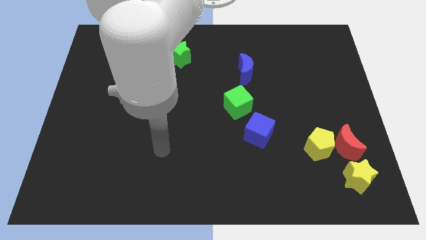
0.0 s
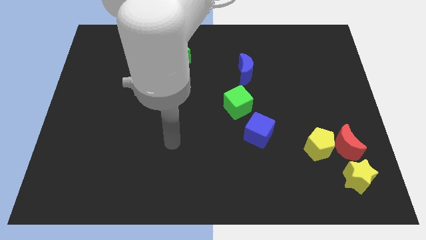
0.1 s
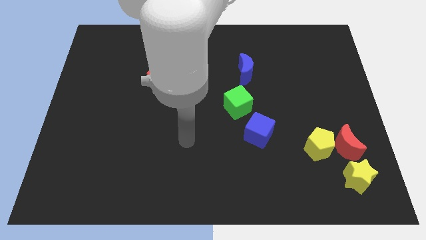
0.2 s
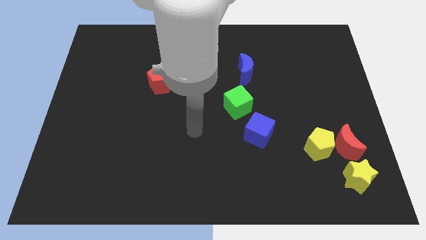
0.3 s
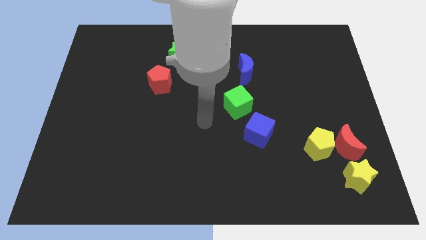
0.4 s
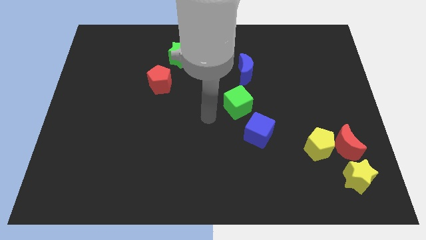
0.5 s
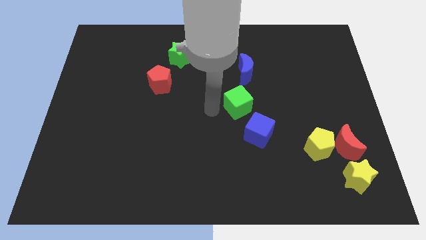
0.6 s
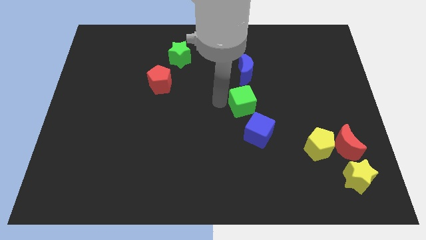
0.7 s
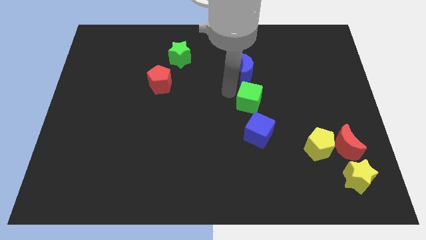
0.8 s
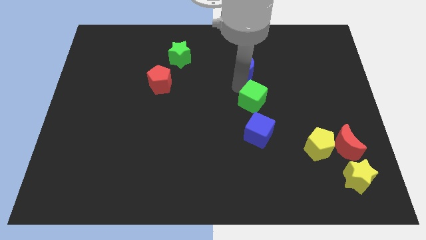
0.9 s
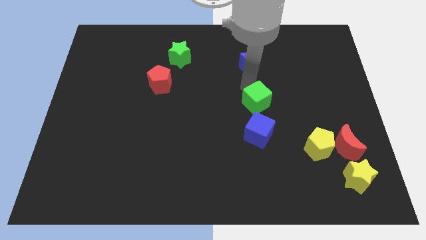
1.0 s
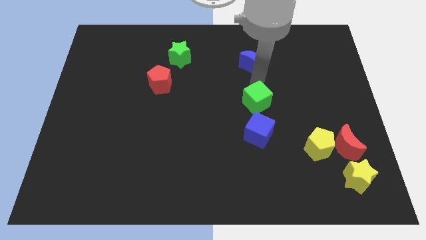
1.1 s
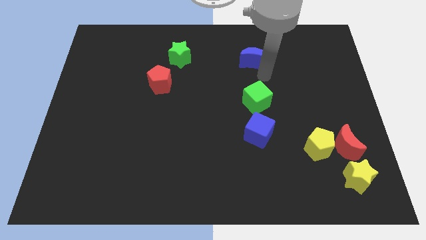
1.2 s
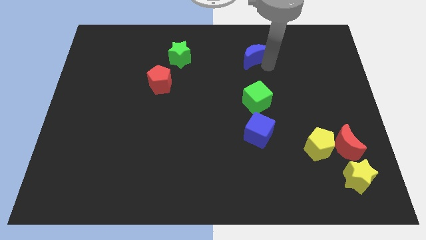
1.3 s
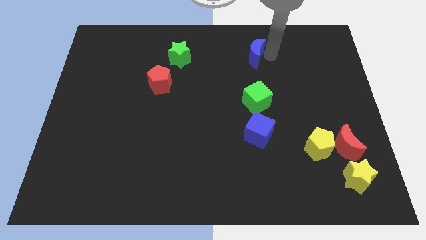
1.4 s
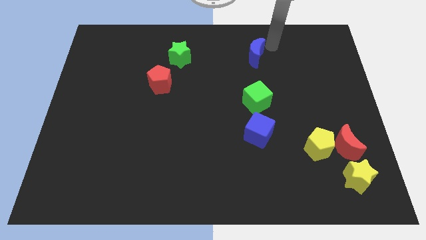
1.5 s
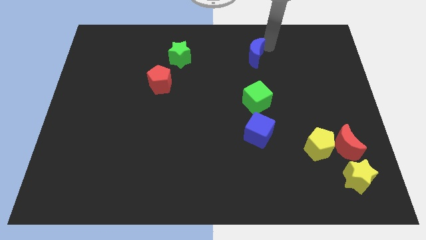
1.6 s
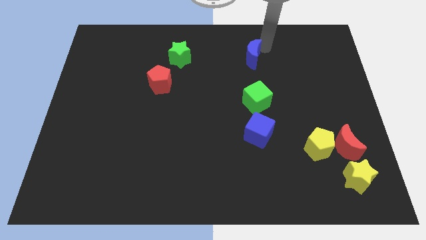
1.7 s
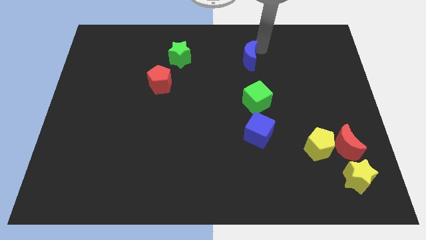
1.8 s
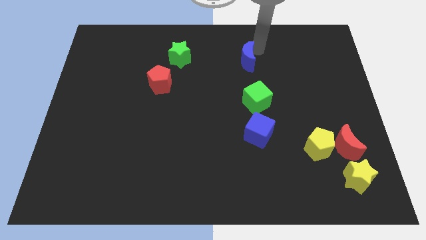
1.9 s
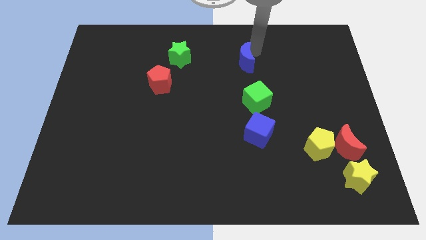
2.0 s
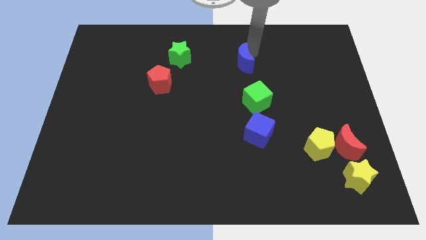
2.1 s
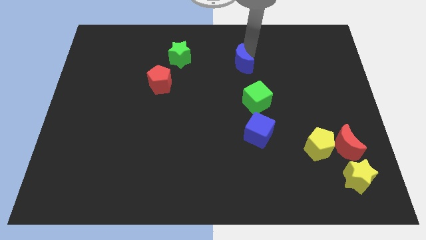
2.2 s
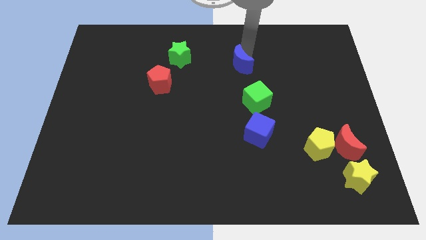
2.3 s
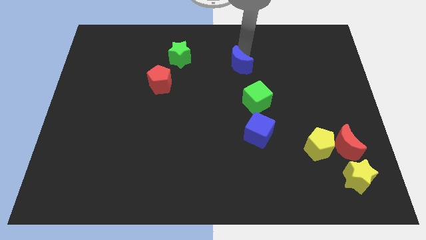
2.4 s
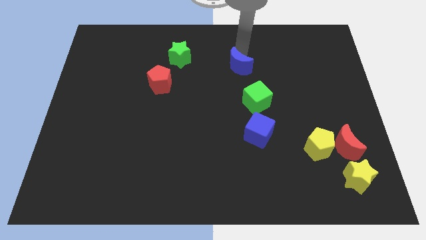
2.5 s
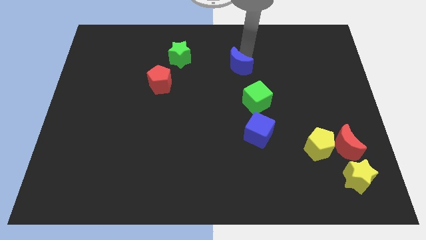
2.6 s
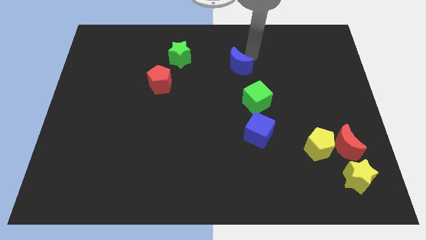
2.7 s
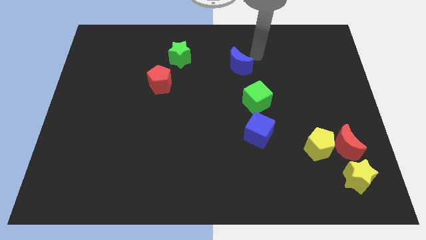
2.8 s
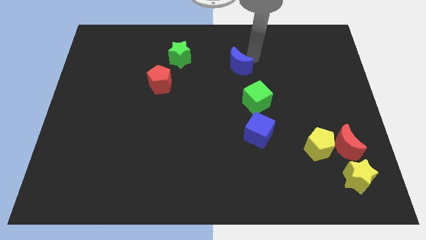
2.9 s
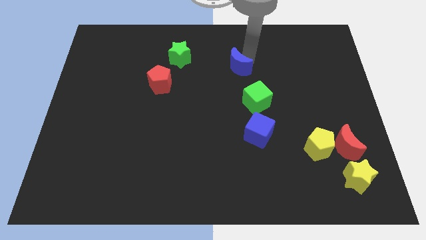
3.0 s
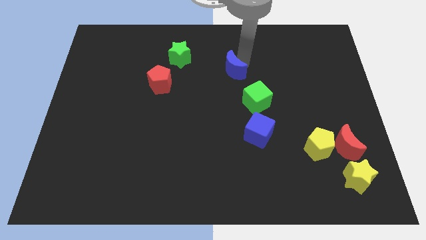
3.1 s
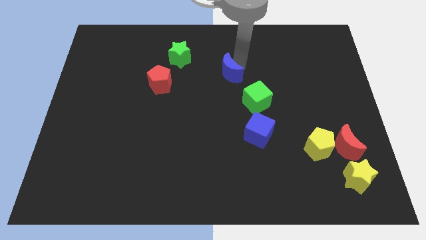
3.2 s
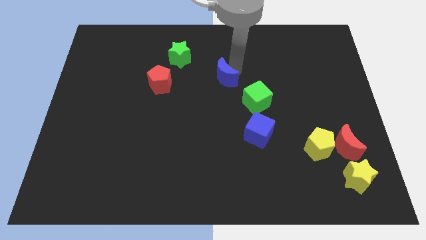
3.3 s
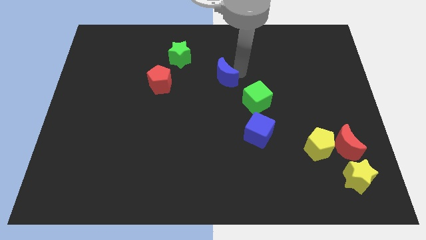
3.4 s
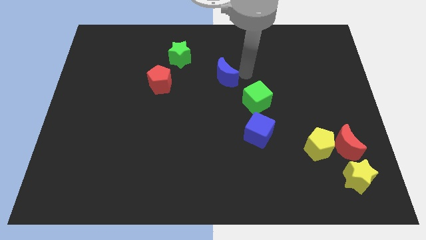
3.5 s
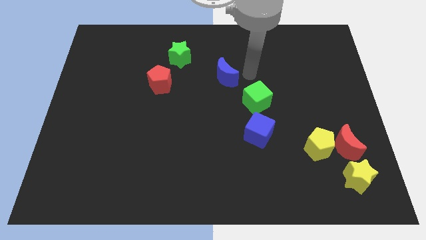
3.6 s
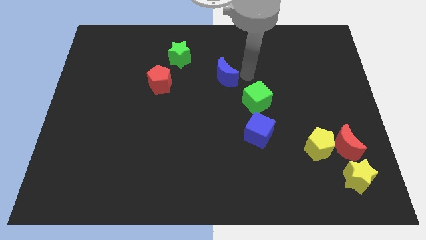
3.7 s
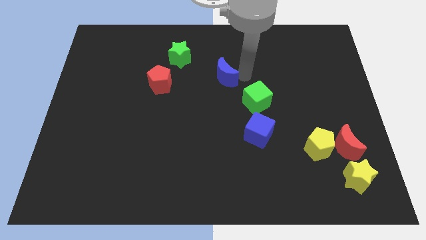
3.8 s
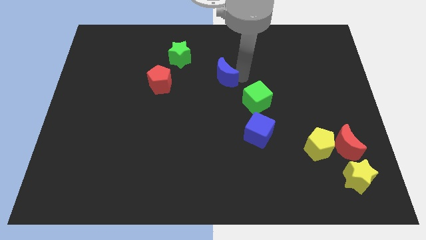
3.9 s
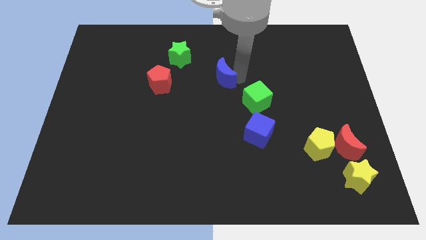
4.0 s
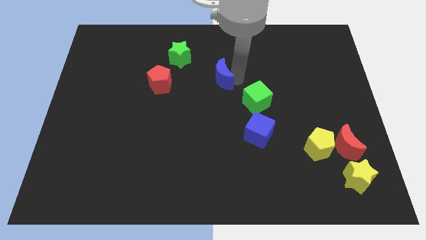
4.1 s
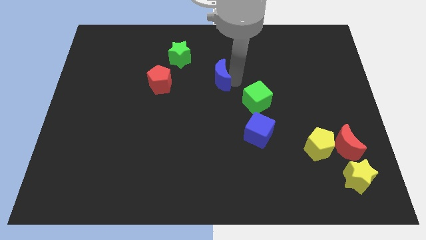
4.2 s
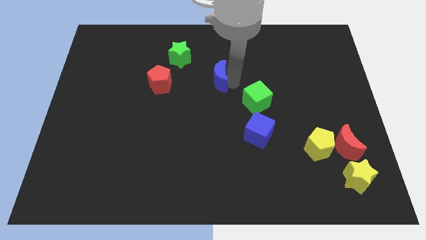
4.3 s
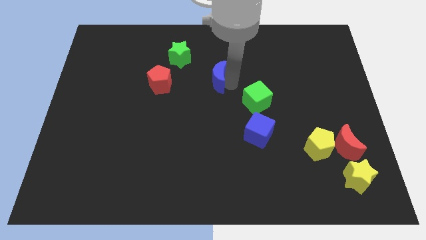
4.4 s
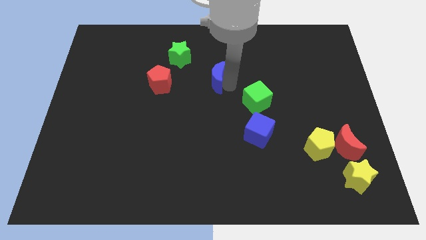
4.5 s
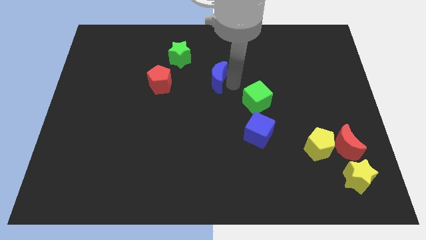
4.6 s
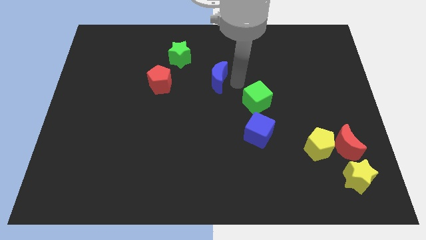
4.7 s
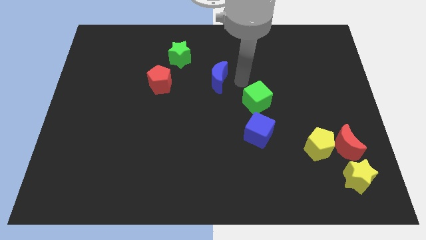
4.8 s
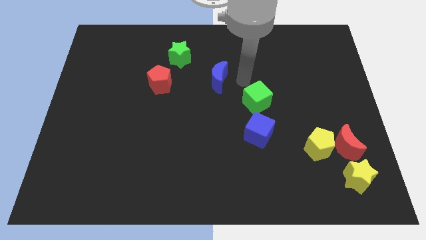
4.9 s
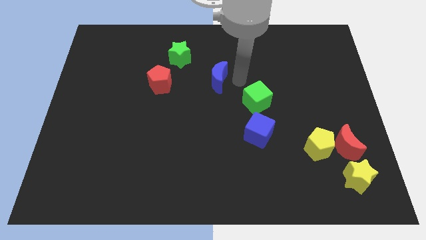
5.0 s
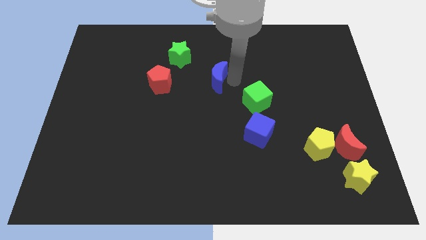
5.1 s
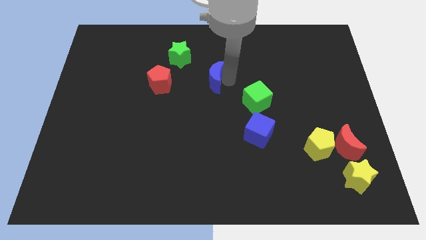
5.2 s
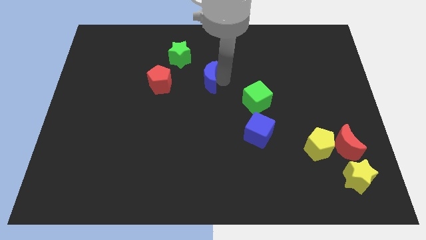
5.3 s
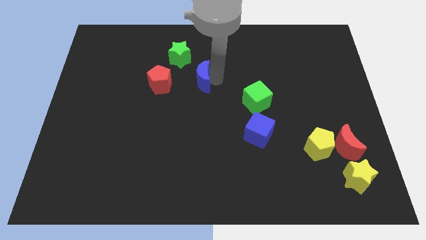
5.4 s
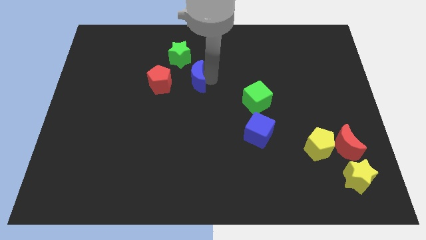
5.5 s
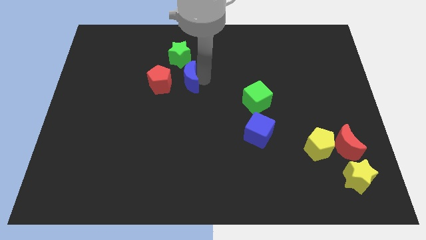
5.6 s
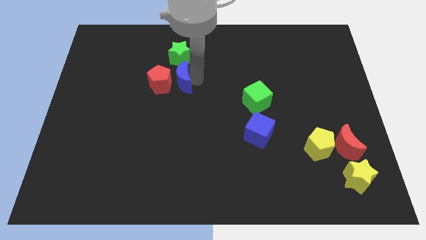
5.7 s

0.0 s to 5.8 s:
put the blue moon towards the red pentagon

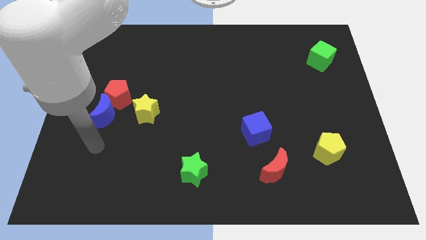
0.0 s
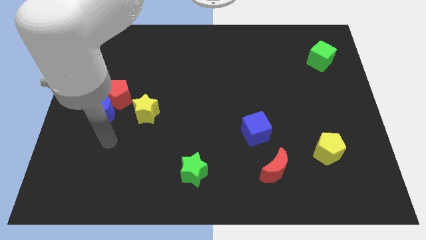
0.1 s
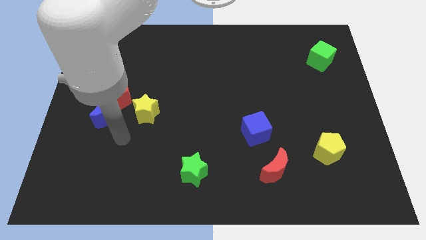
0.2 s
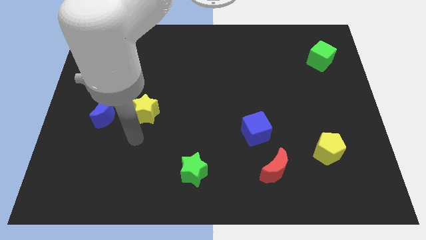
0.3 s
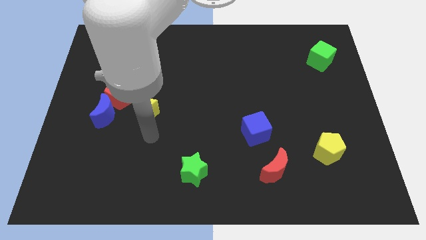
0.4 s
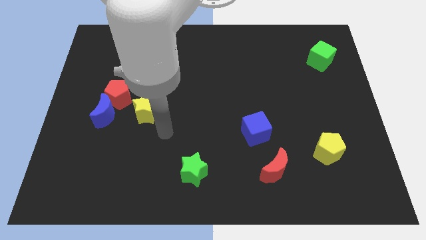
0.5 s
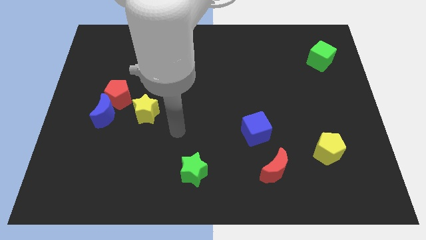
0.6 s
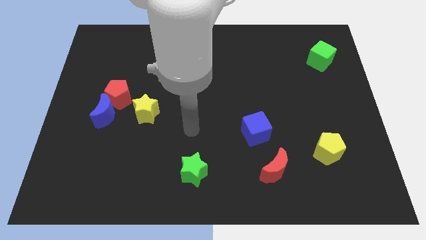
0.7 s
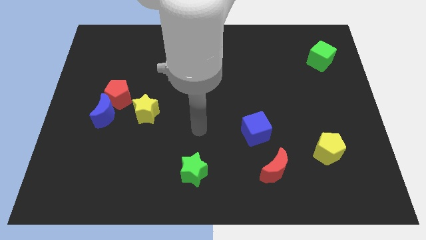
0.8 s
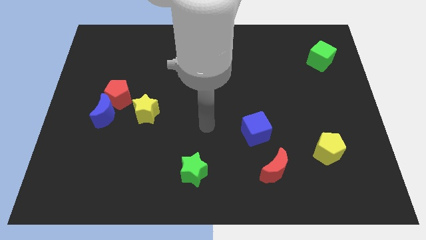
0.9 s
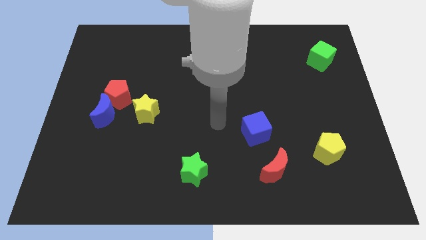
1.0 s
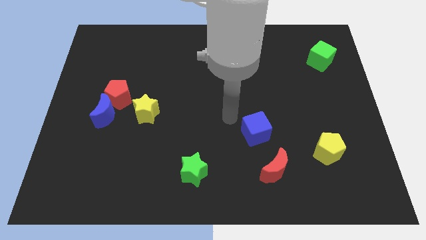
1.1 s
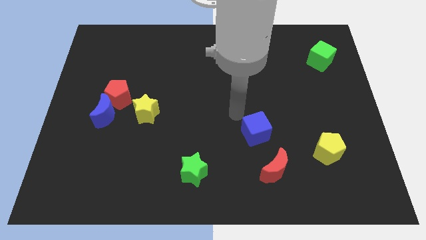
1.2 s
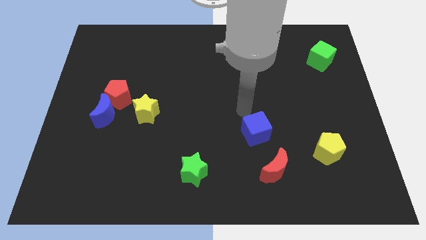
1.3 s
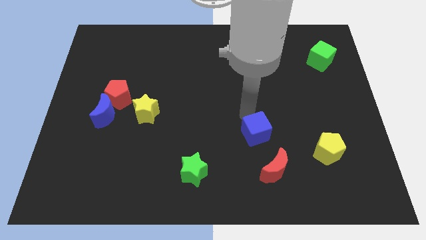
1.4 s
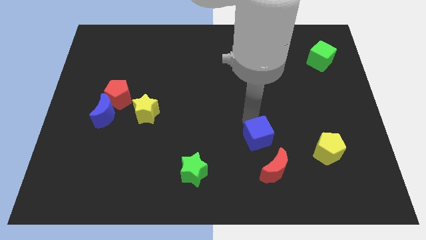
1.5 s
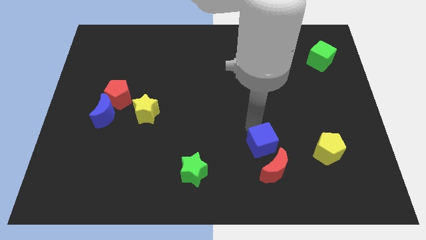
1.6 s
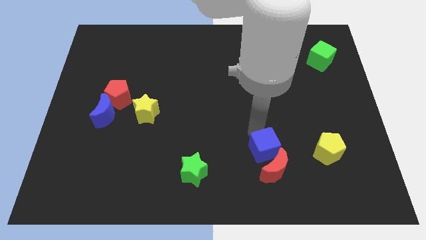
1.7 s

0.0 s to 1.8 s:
put the blue cube towards the red moon
